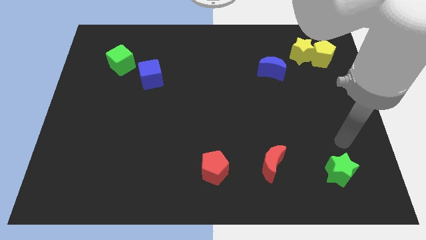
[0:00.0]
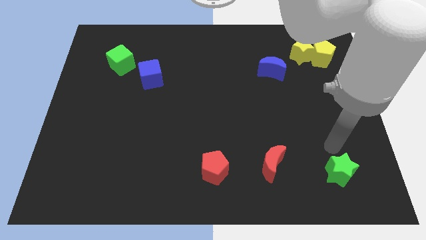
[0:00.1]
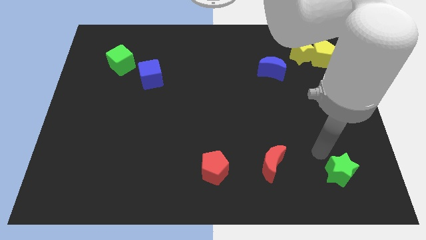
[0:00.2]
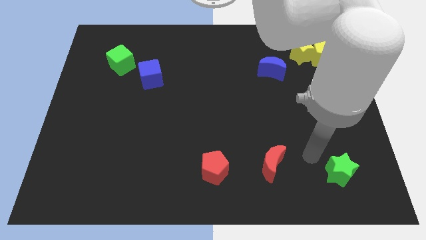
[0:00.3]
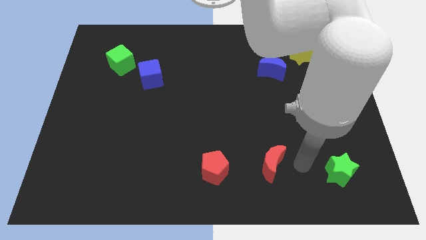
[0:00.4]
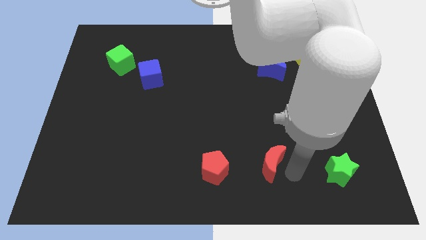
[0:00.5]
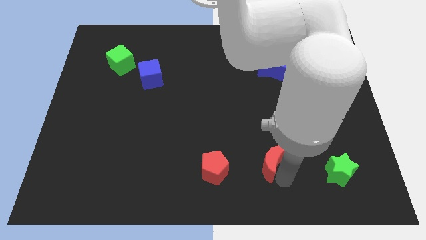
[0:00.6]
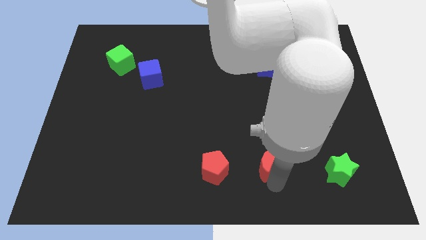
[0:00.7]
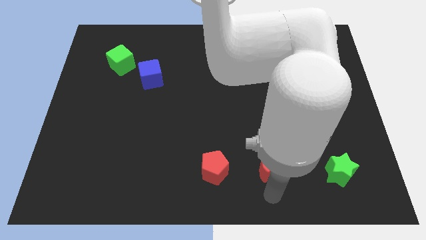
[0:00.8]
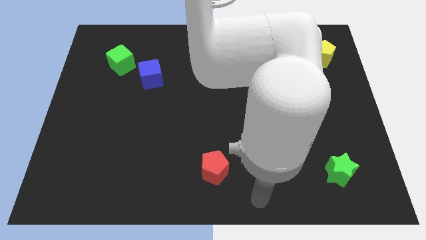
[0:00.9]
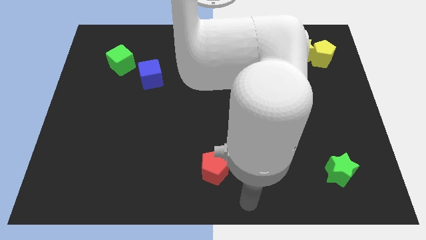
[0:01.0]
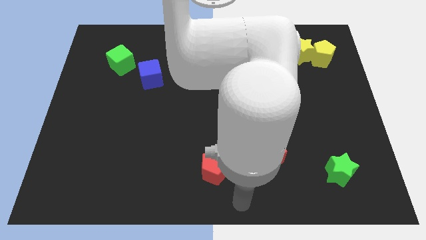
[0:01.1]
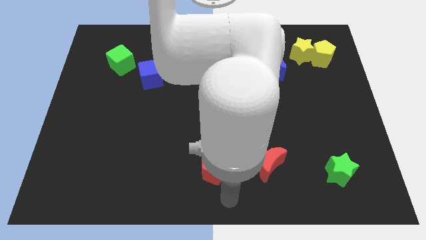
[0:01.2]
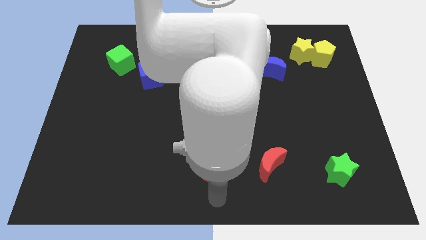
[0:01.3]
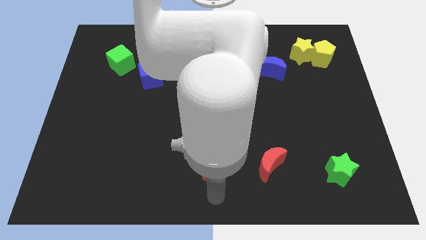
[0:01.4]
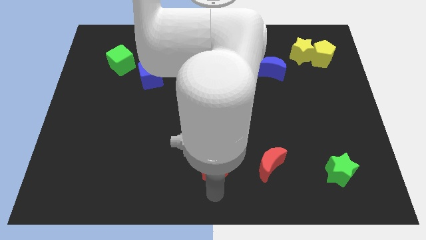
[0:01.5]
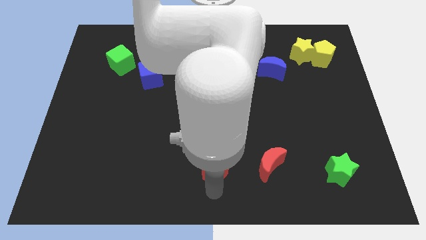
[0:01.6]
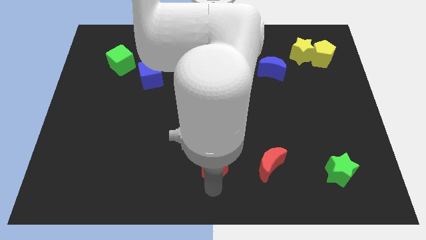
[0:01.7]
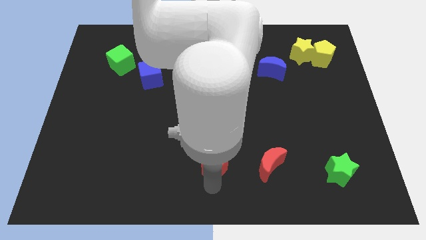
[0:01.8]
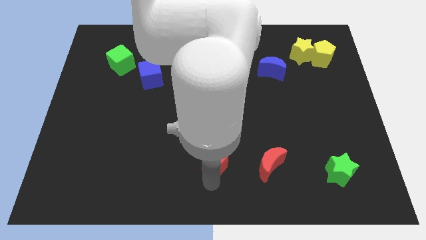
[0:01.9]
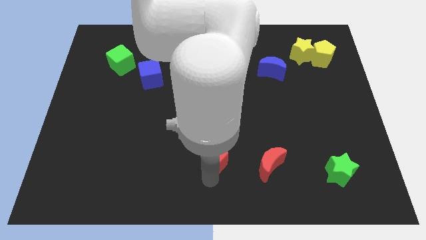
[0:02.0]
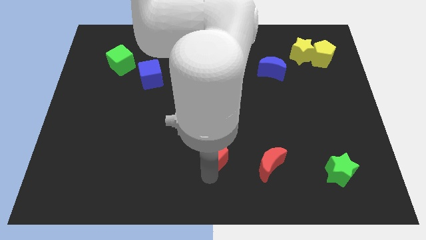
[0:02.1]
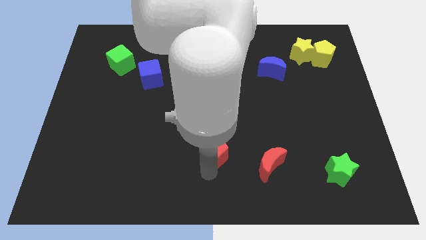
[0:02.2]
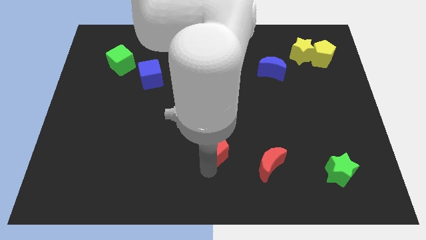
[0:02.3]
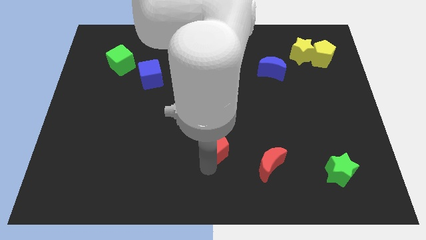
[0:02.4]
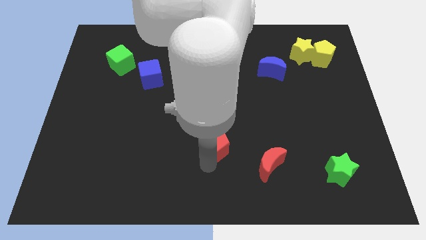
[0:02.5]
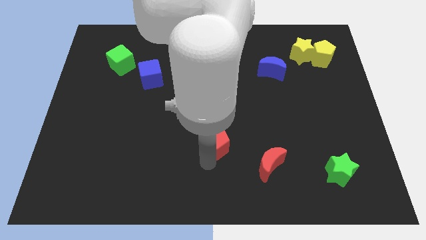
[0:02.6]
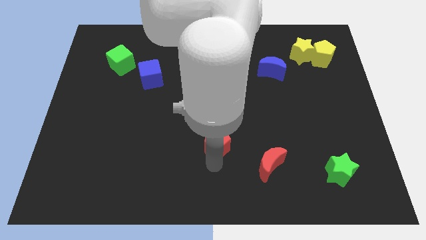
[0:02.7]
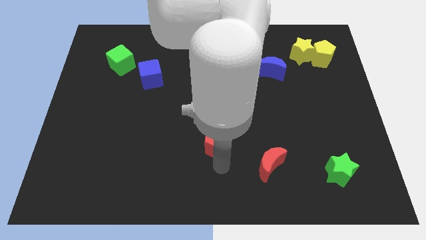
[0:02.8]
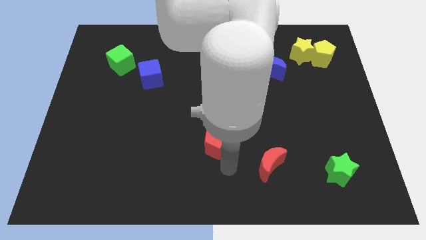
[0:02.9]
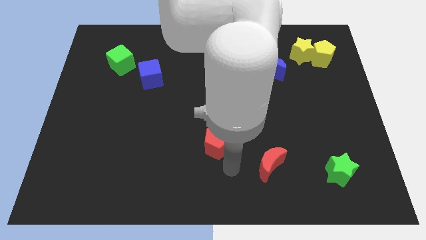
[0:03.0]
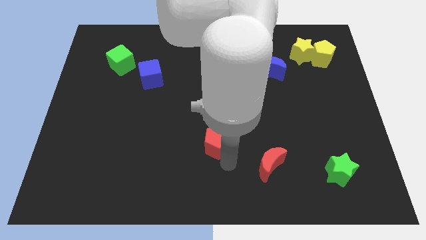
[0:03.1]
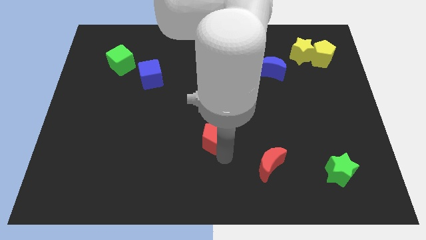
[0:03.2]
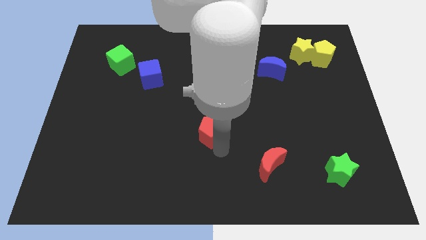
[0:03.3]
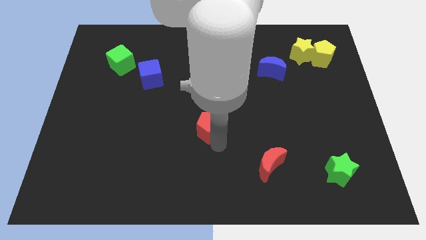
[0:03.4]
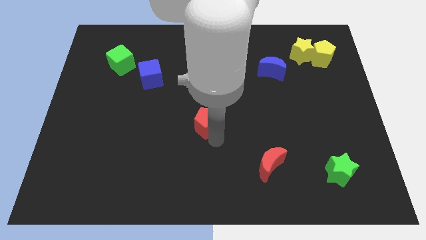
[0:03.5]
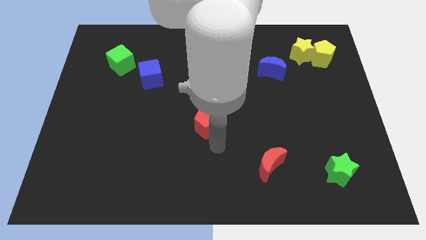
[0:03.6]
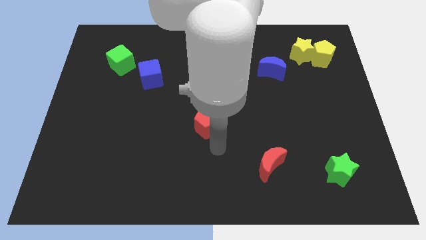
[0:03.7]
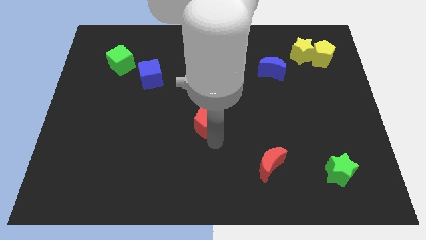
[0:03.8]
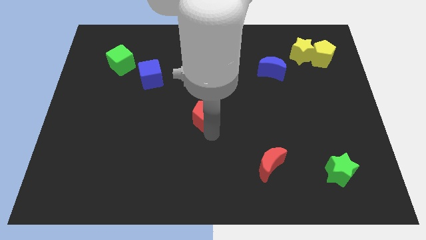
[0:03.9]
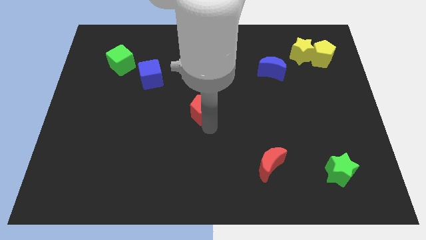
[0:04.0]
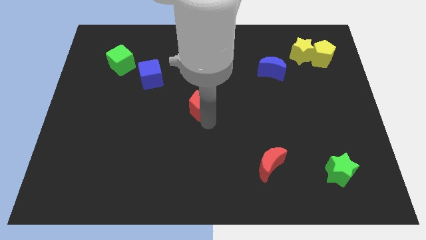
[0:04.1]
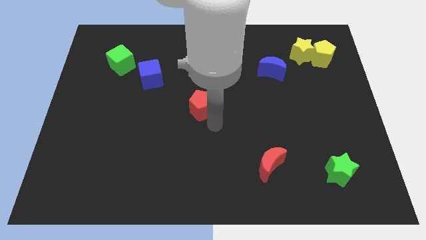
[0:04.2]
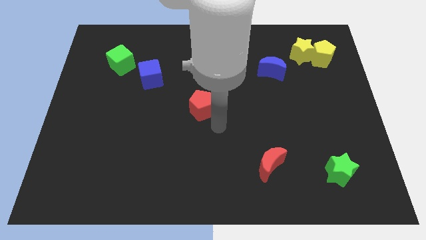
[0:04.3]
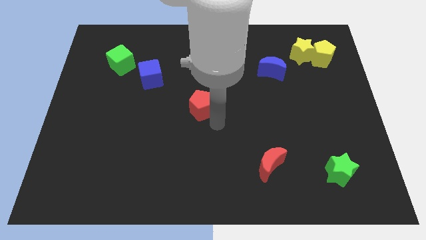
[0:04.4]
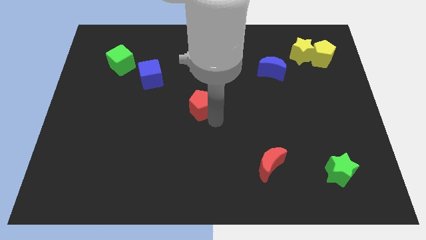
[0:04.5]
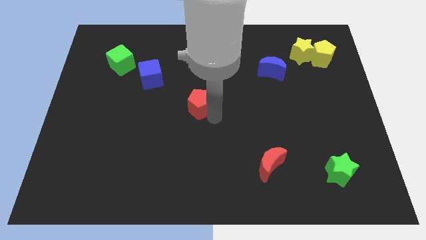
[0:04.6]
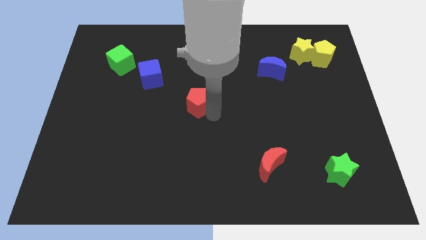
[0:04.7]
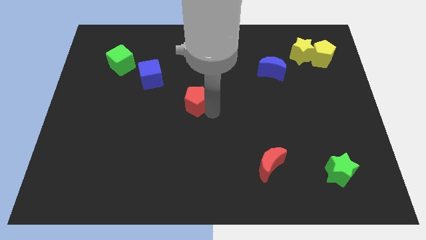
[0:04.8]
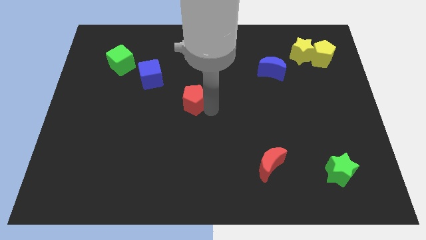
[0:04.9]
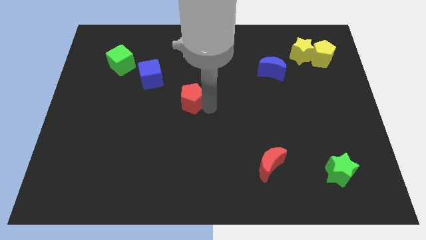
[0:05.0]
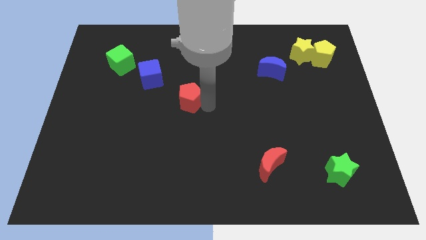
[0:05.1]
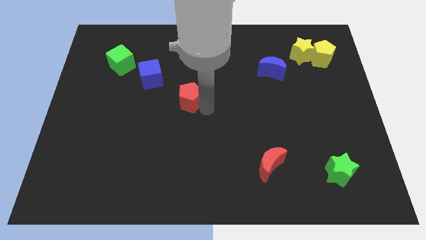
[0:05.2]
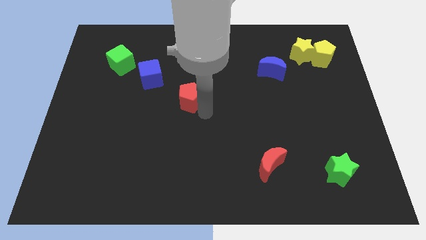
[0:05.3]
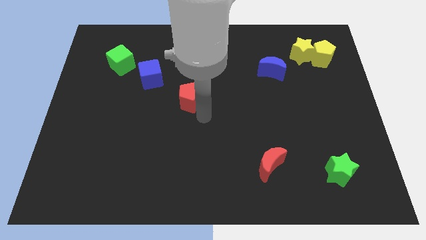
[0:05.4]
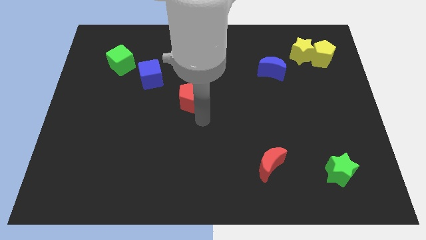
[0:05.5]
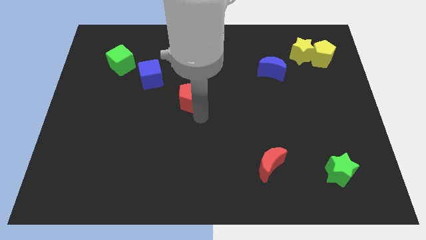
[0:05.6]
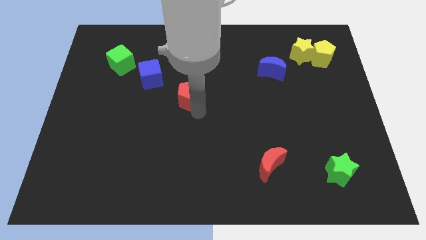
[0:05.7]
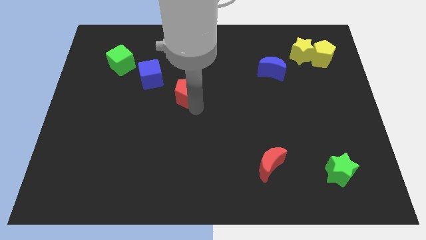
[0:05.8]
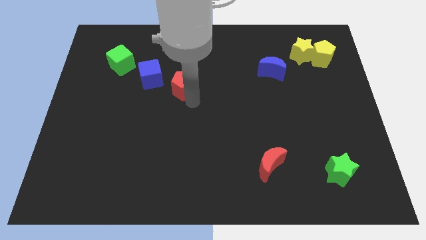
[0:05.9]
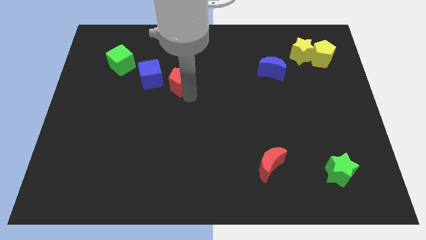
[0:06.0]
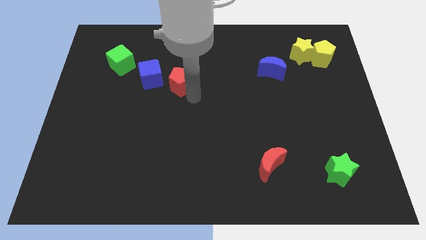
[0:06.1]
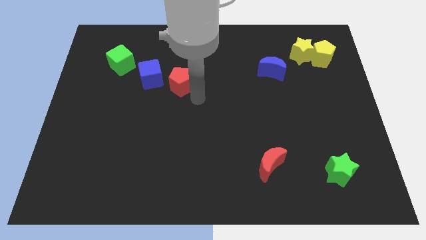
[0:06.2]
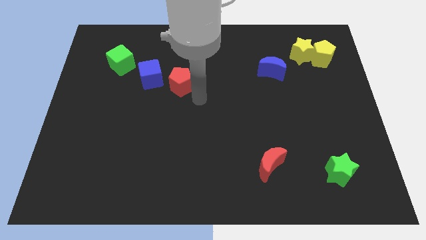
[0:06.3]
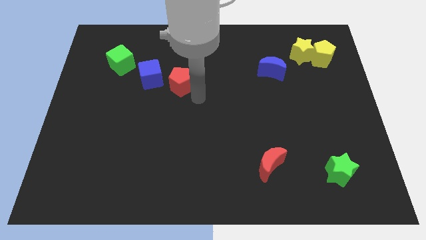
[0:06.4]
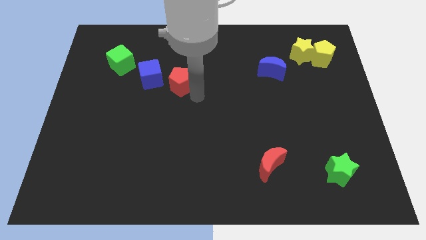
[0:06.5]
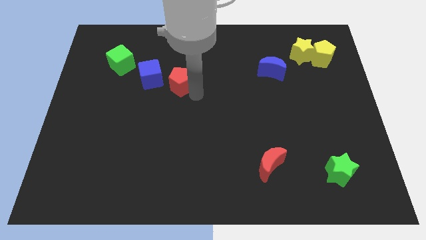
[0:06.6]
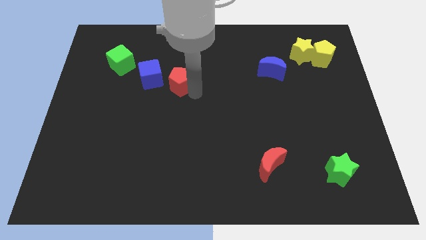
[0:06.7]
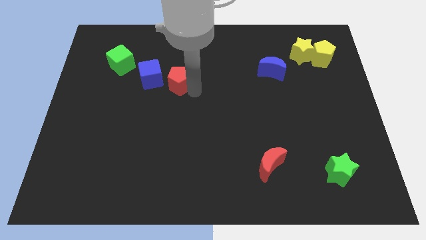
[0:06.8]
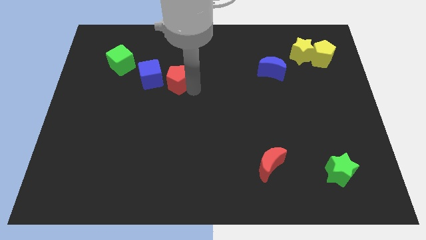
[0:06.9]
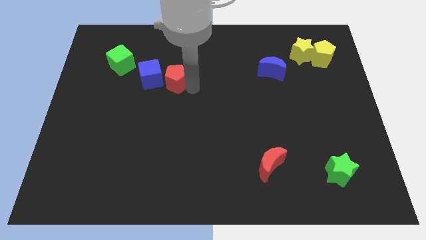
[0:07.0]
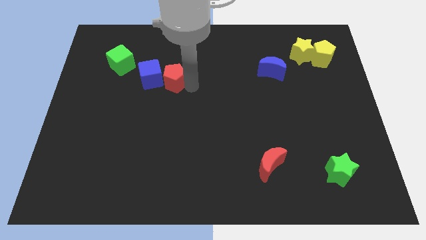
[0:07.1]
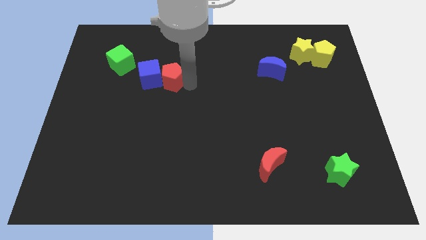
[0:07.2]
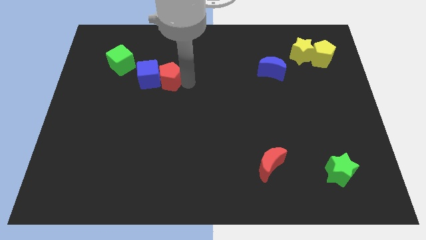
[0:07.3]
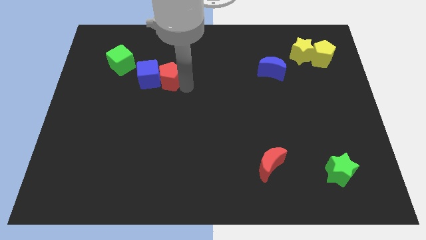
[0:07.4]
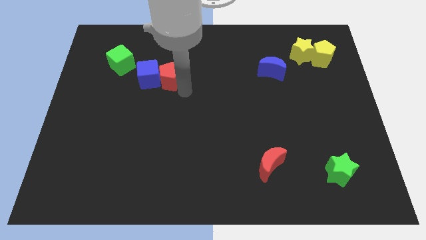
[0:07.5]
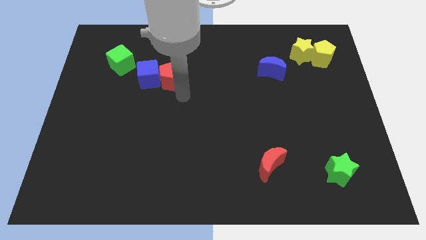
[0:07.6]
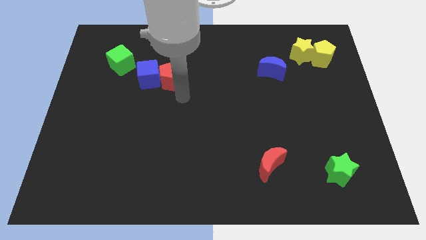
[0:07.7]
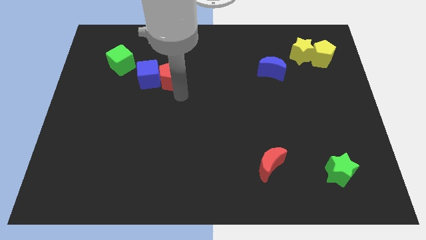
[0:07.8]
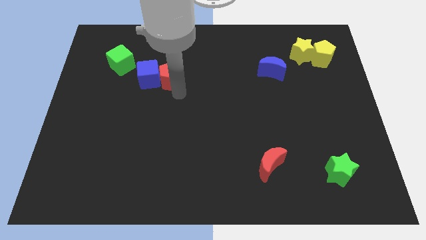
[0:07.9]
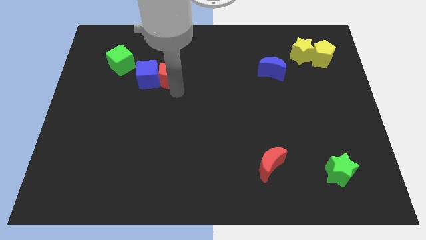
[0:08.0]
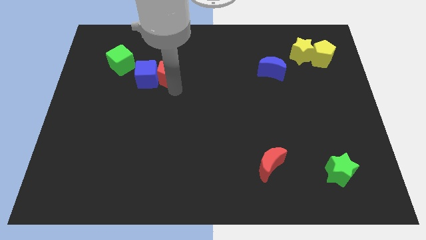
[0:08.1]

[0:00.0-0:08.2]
push the red pentagon right of the green cube
